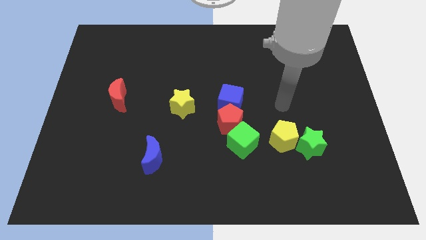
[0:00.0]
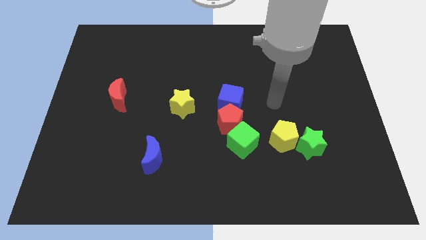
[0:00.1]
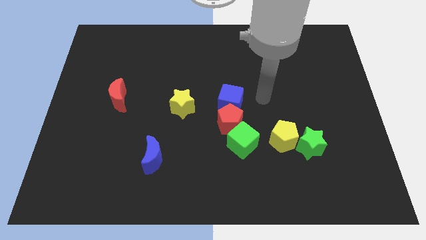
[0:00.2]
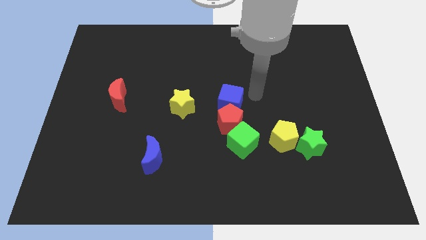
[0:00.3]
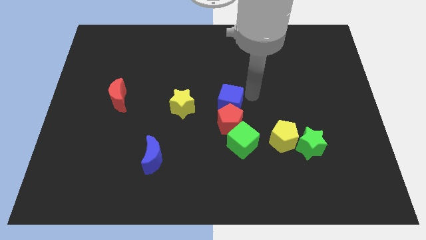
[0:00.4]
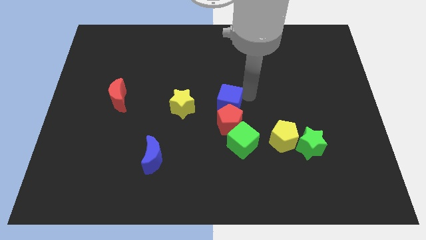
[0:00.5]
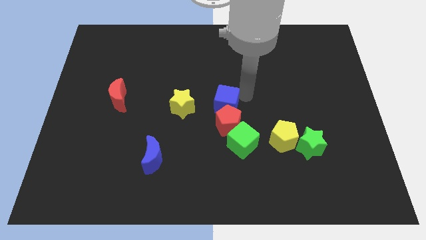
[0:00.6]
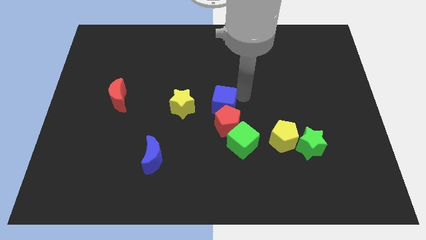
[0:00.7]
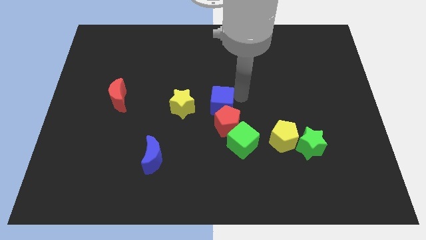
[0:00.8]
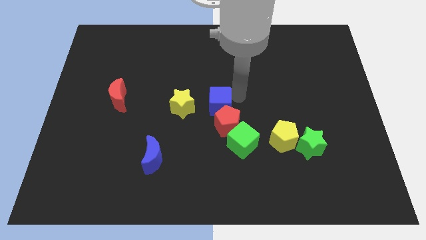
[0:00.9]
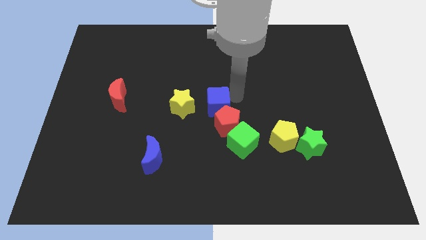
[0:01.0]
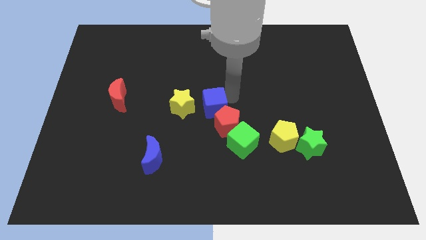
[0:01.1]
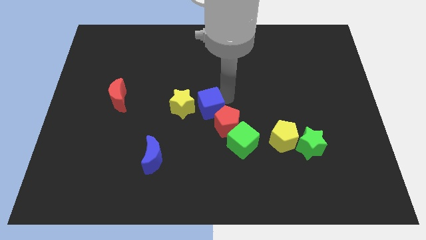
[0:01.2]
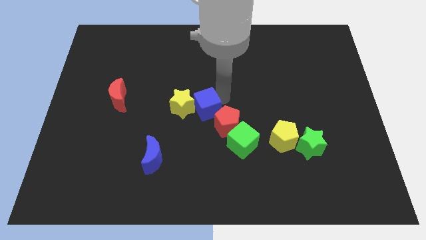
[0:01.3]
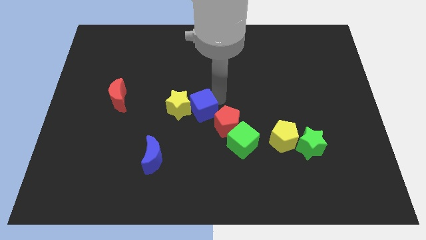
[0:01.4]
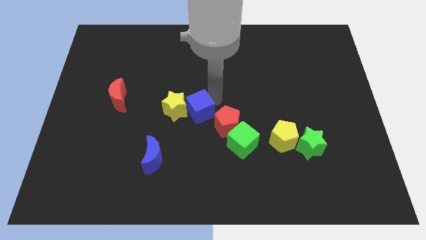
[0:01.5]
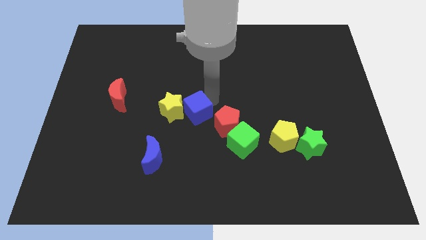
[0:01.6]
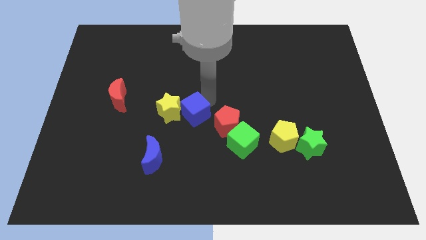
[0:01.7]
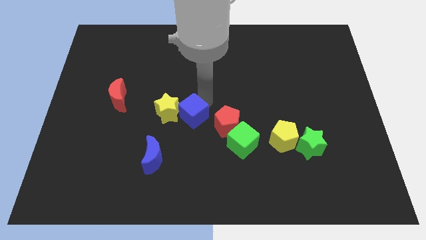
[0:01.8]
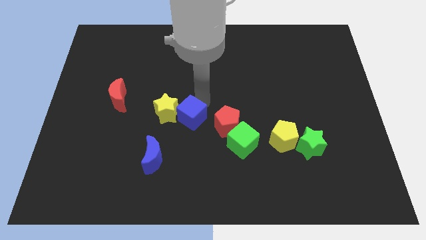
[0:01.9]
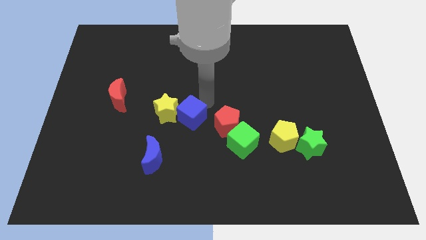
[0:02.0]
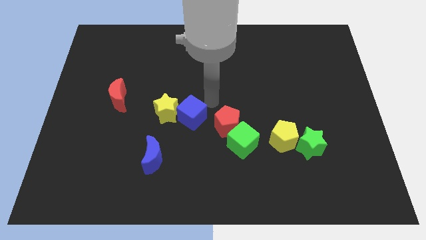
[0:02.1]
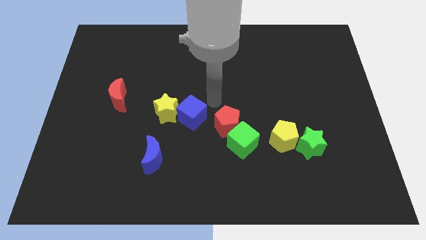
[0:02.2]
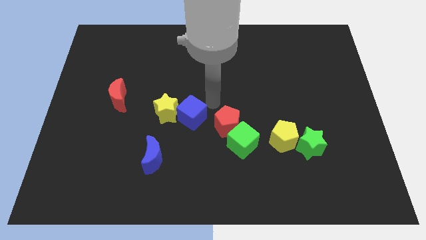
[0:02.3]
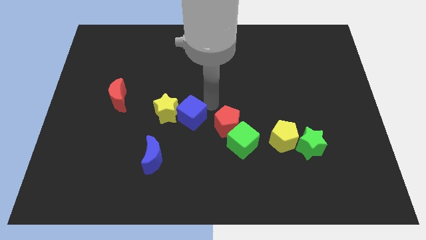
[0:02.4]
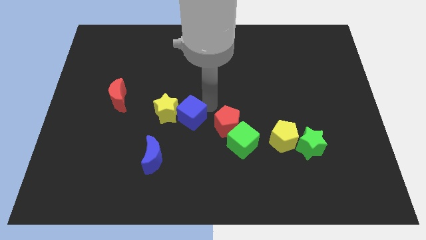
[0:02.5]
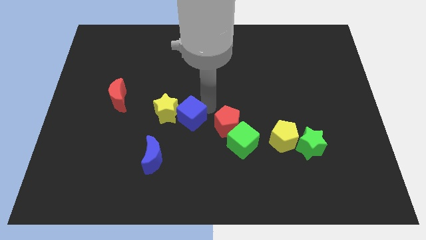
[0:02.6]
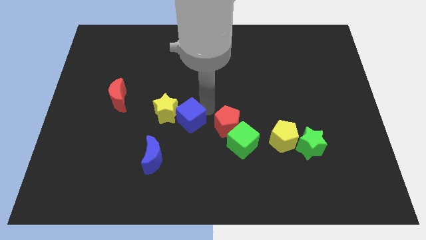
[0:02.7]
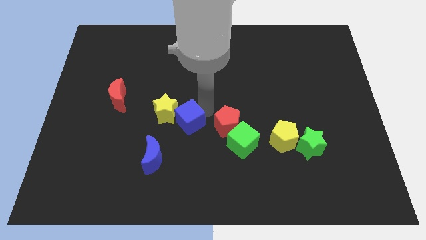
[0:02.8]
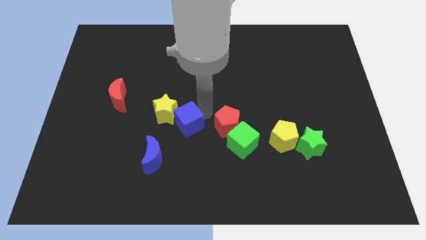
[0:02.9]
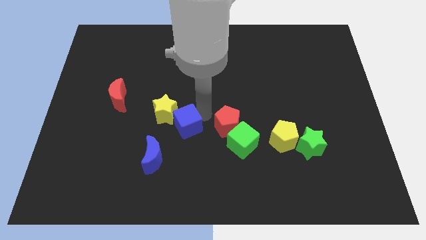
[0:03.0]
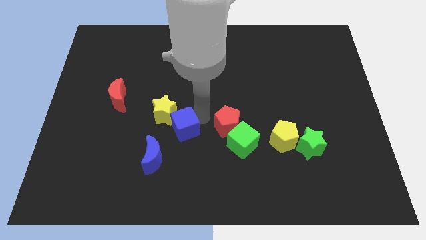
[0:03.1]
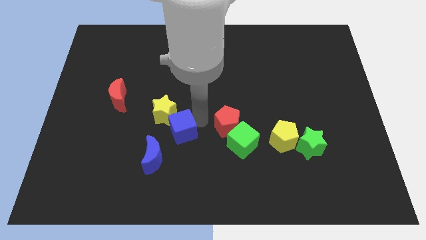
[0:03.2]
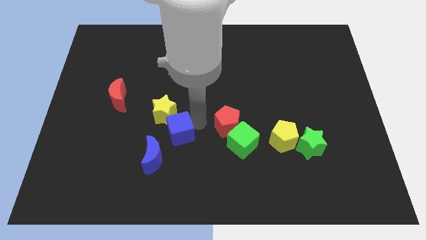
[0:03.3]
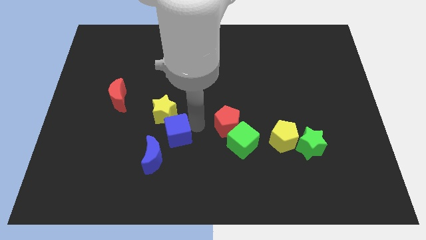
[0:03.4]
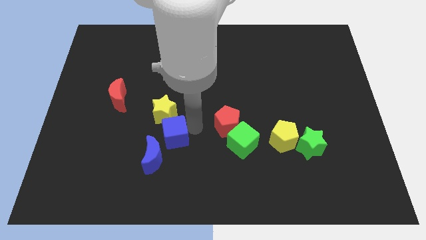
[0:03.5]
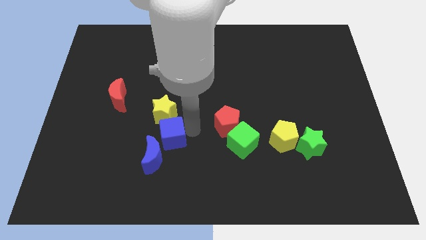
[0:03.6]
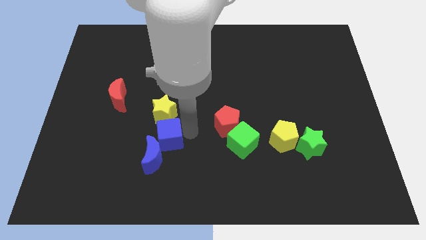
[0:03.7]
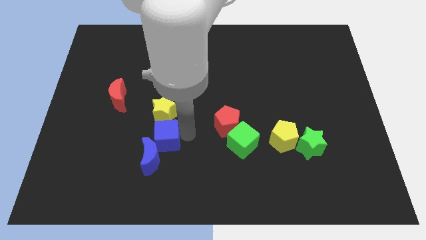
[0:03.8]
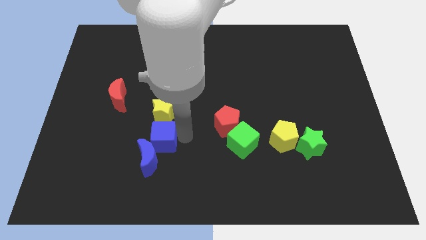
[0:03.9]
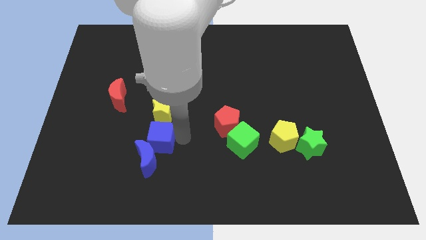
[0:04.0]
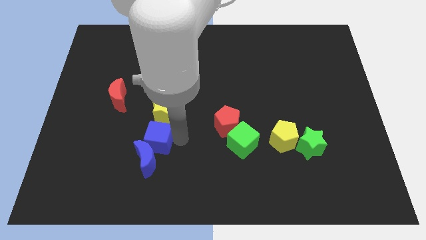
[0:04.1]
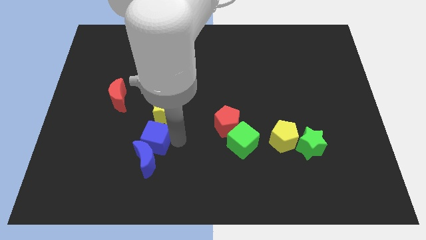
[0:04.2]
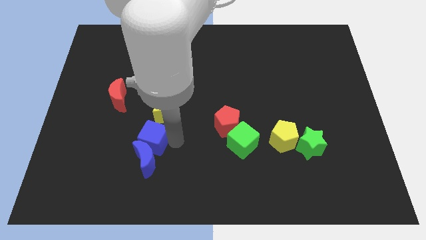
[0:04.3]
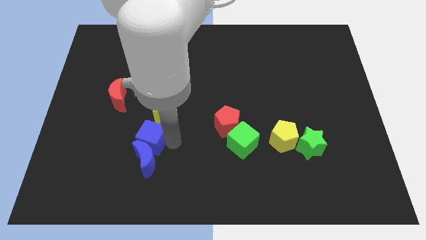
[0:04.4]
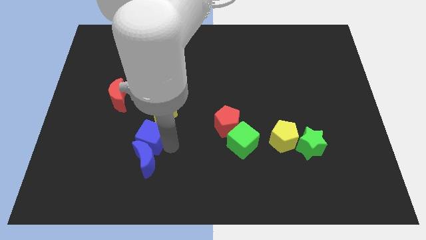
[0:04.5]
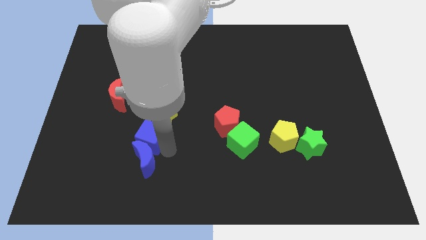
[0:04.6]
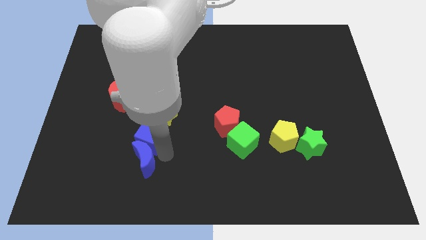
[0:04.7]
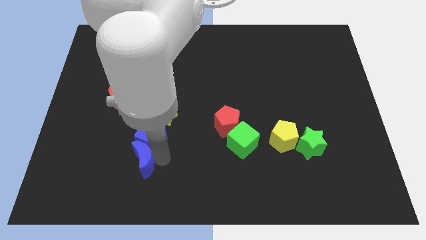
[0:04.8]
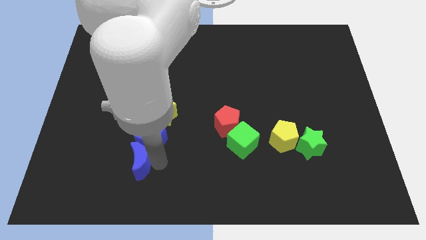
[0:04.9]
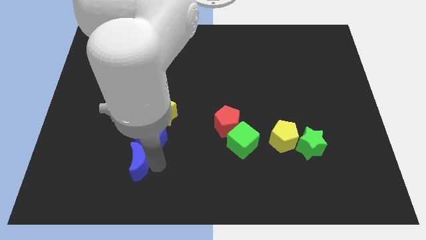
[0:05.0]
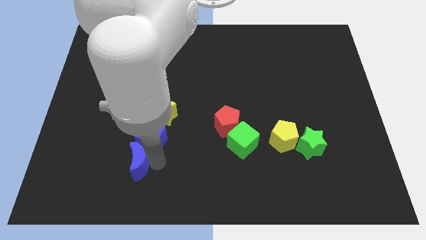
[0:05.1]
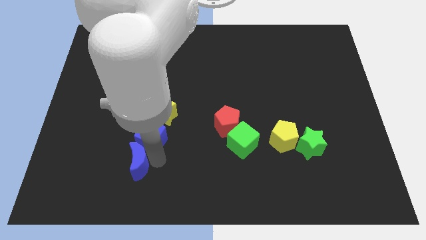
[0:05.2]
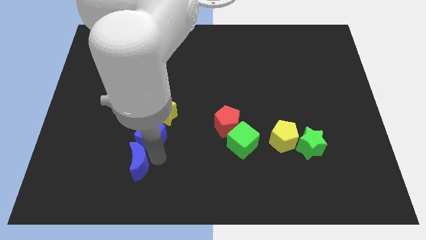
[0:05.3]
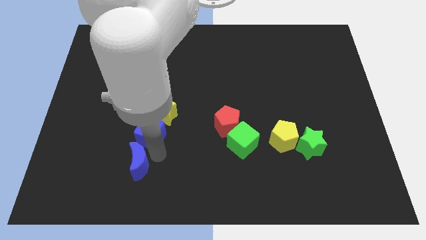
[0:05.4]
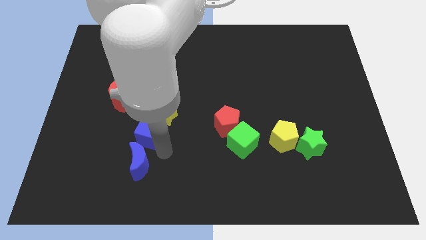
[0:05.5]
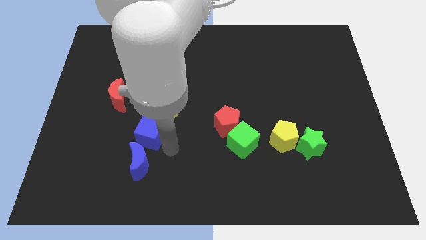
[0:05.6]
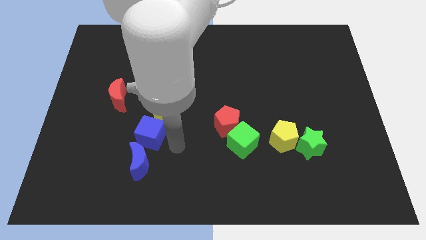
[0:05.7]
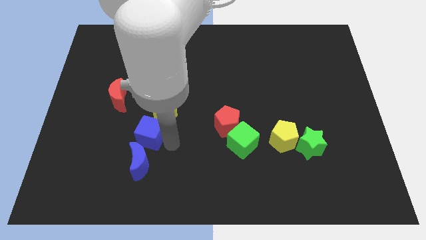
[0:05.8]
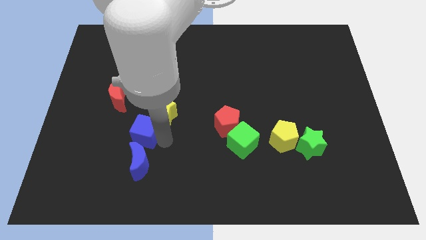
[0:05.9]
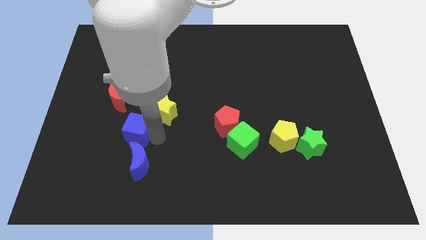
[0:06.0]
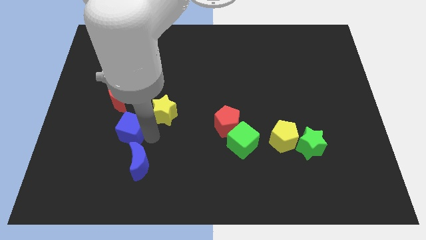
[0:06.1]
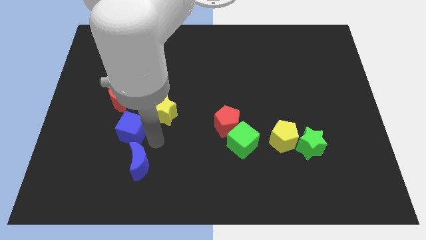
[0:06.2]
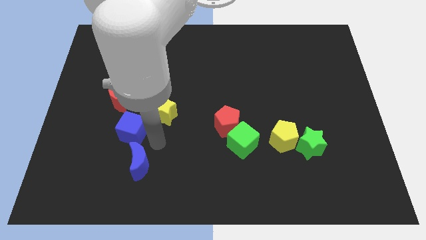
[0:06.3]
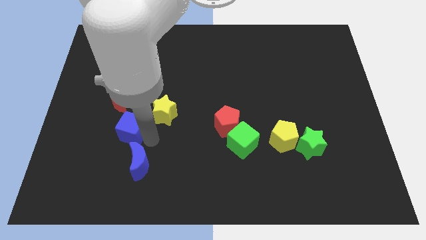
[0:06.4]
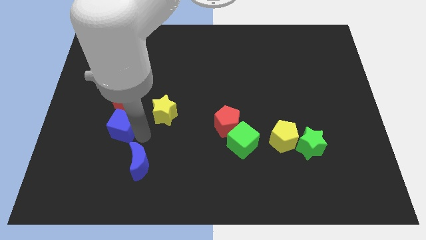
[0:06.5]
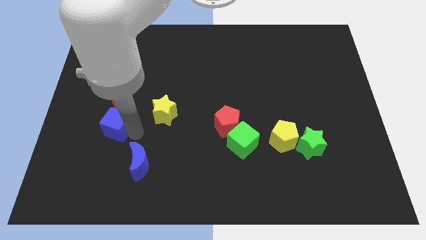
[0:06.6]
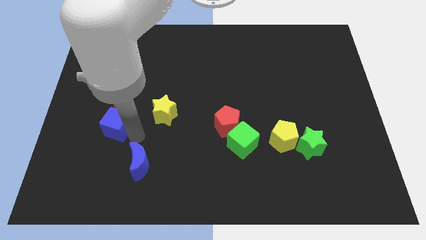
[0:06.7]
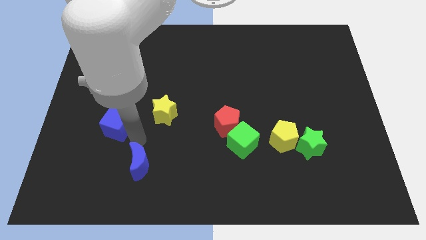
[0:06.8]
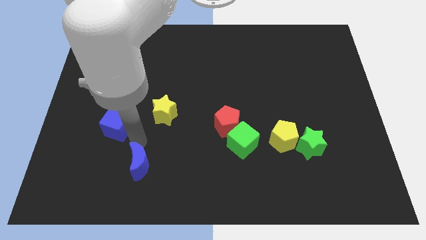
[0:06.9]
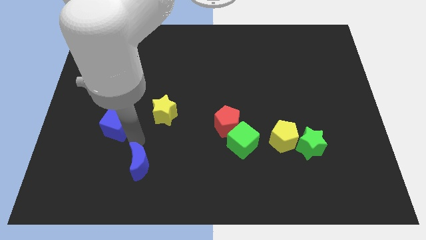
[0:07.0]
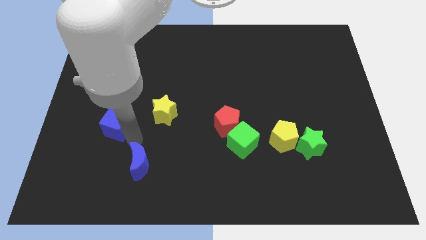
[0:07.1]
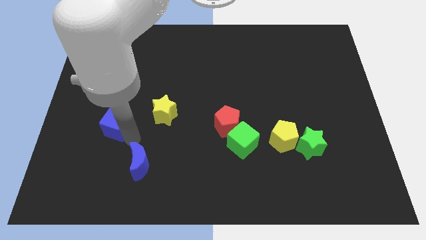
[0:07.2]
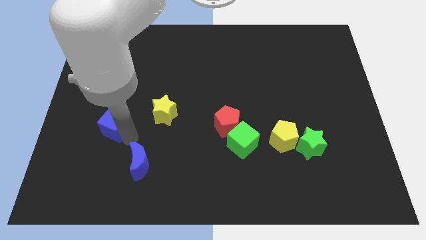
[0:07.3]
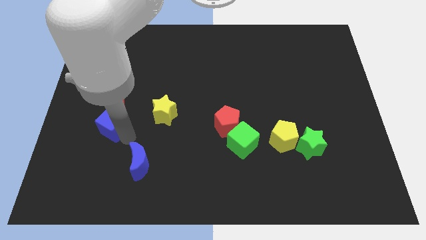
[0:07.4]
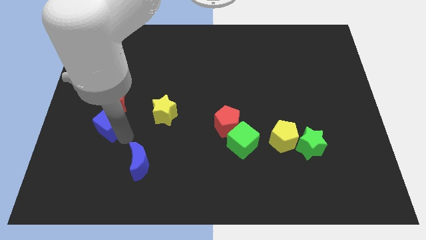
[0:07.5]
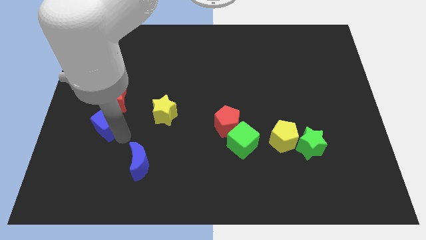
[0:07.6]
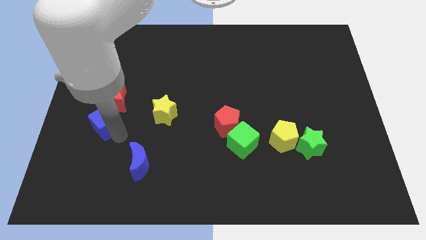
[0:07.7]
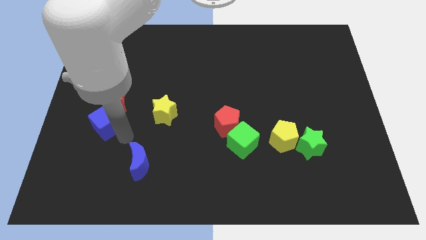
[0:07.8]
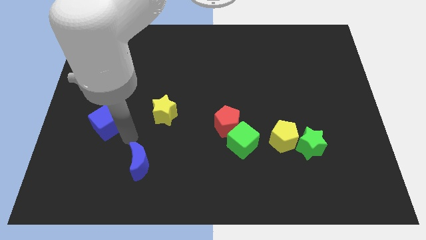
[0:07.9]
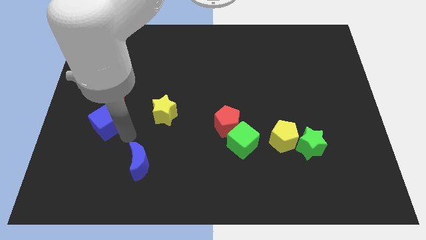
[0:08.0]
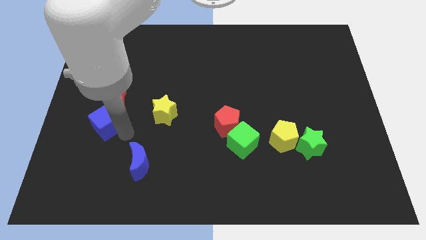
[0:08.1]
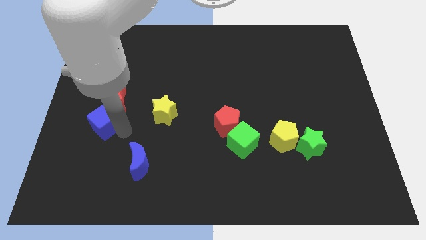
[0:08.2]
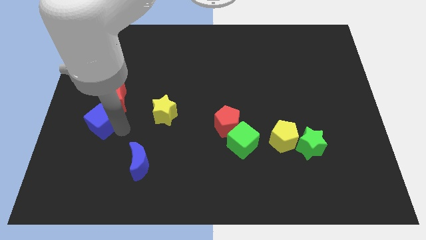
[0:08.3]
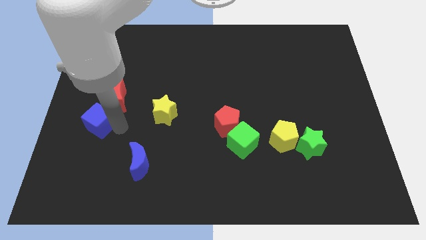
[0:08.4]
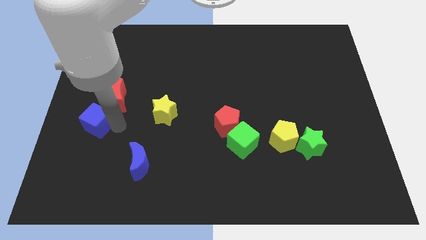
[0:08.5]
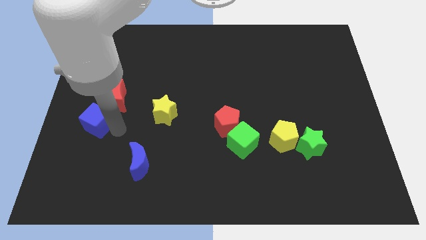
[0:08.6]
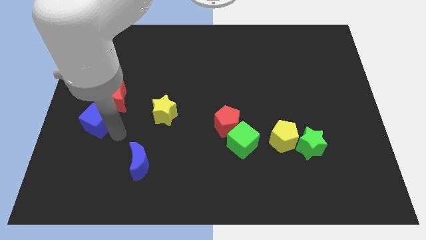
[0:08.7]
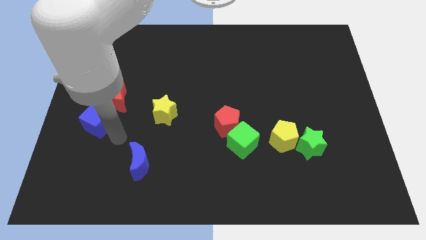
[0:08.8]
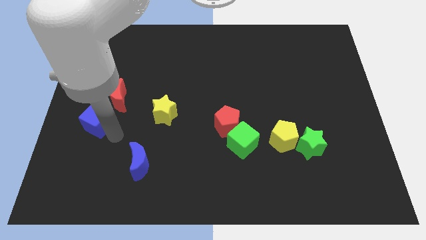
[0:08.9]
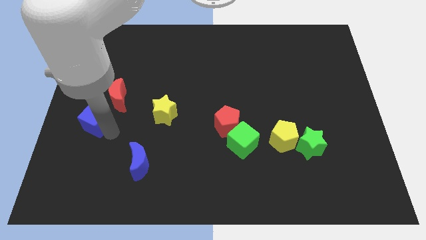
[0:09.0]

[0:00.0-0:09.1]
push the blue cube to the center left
